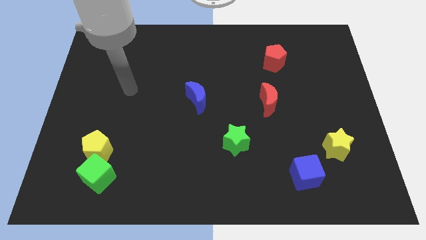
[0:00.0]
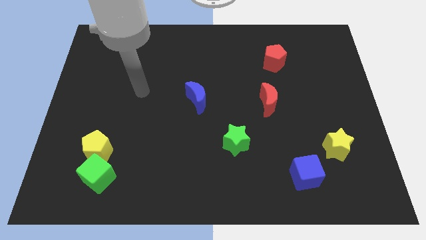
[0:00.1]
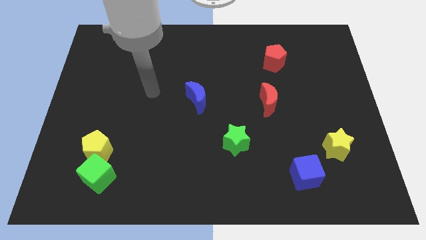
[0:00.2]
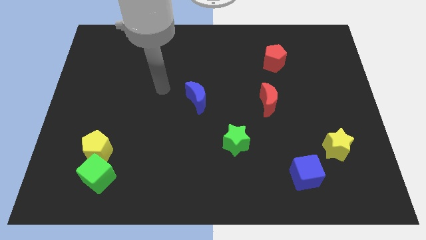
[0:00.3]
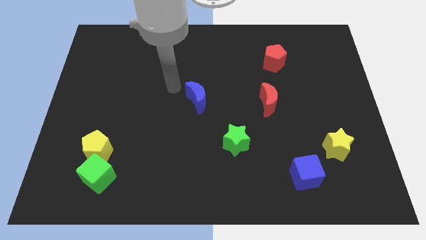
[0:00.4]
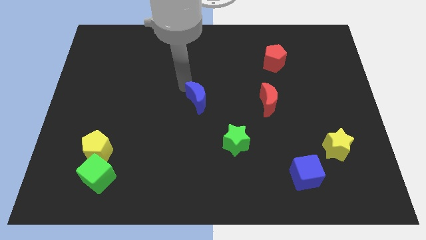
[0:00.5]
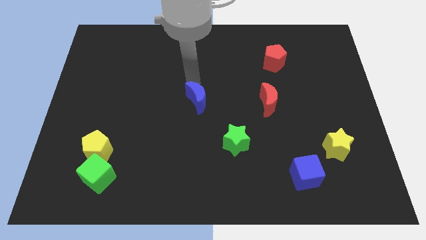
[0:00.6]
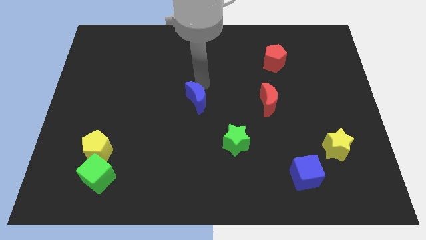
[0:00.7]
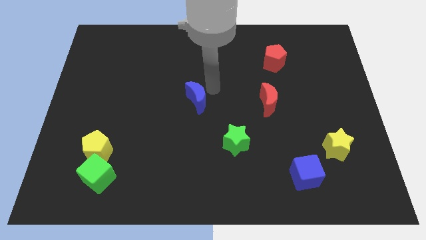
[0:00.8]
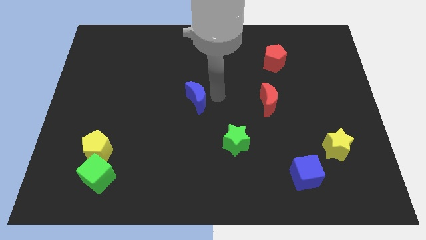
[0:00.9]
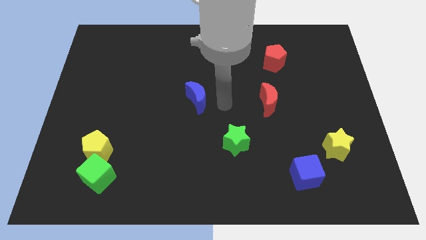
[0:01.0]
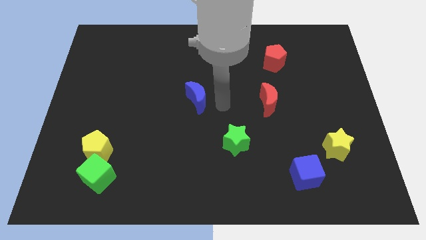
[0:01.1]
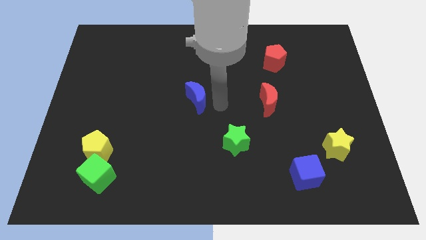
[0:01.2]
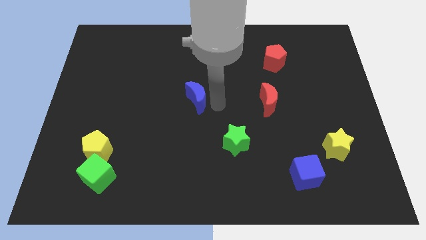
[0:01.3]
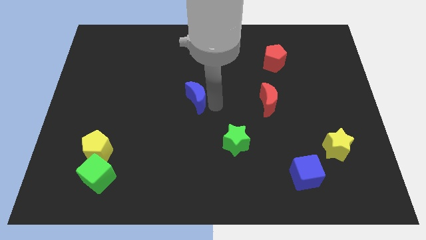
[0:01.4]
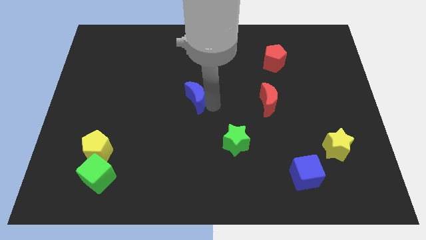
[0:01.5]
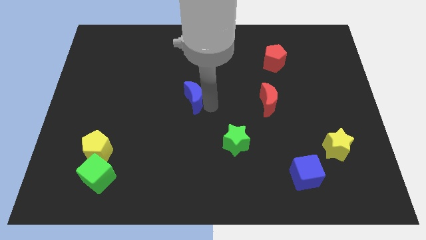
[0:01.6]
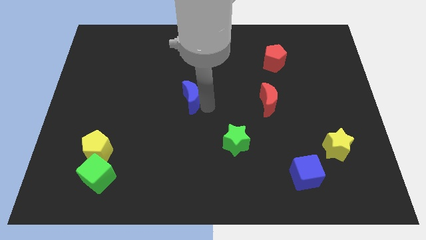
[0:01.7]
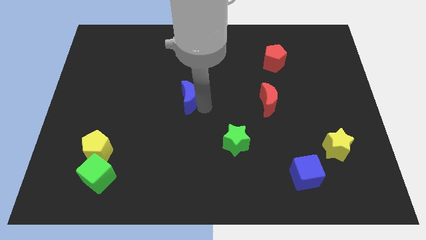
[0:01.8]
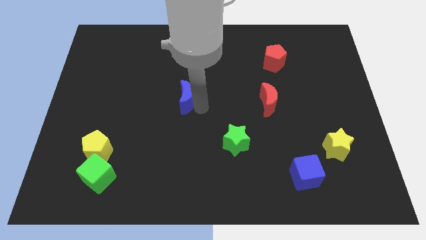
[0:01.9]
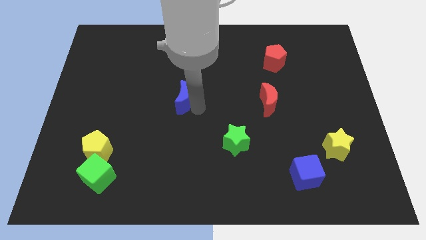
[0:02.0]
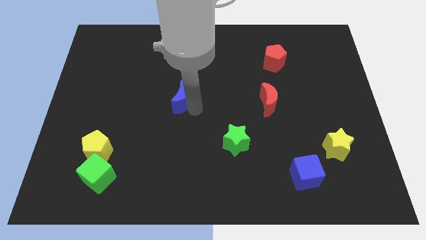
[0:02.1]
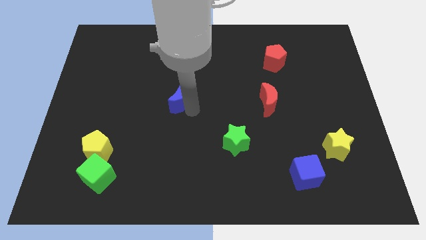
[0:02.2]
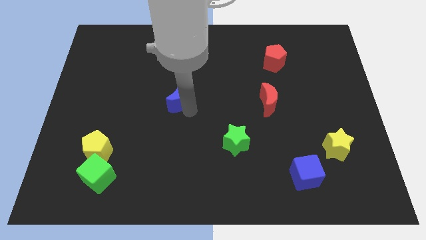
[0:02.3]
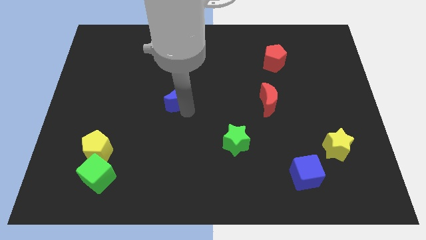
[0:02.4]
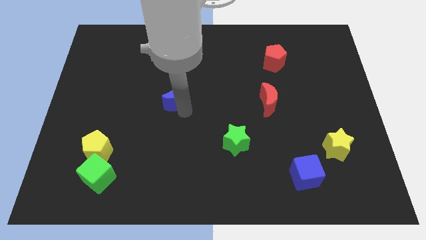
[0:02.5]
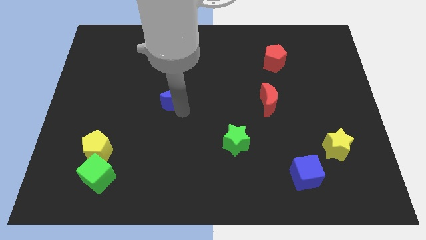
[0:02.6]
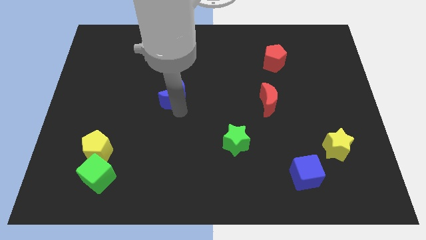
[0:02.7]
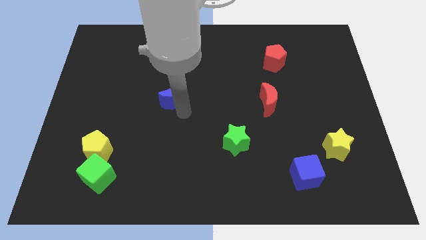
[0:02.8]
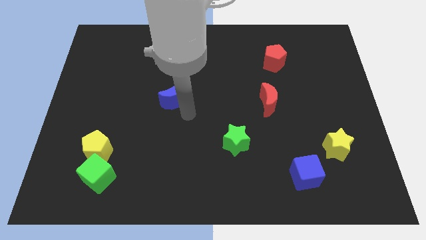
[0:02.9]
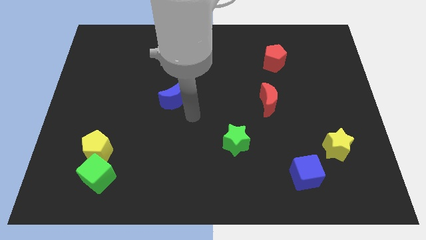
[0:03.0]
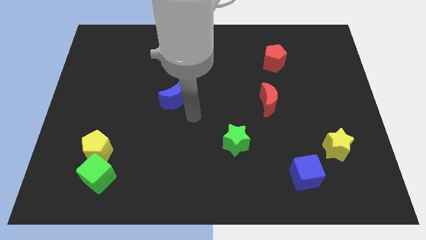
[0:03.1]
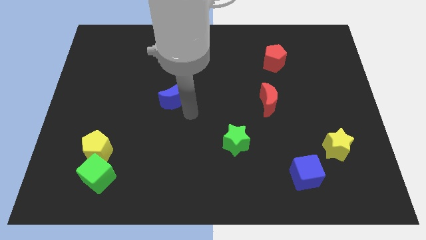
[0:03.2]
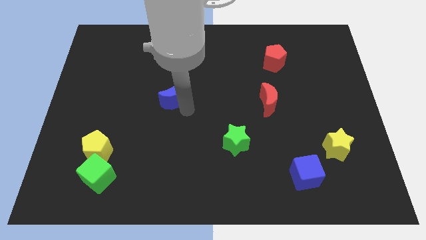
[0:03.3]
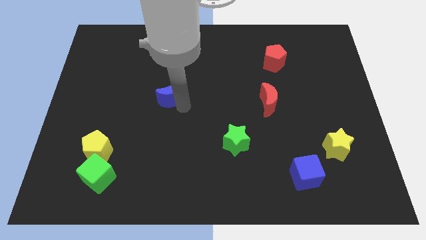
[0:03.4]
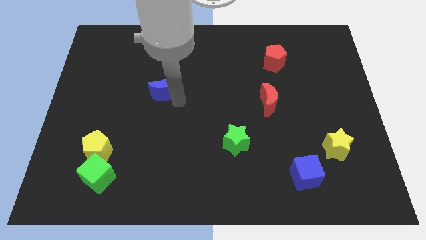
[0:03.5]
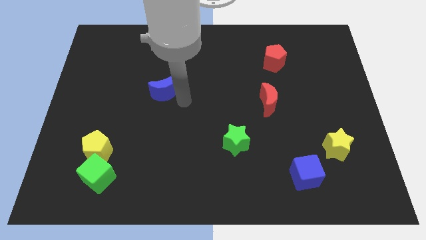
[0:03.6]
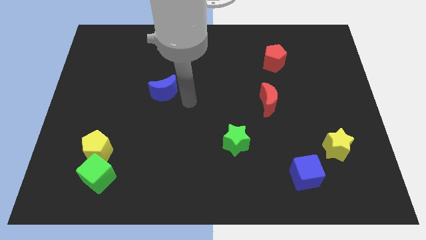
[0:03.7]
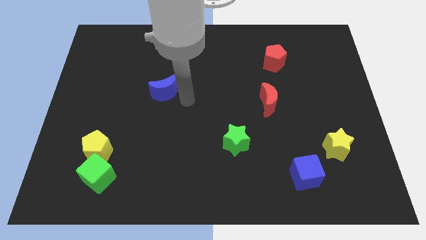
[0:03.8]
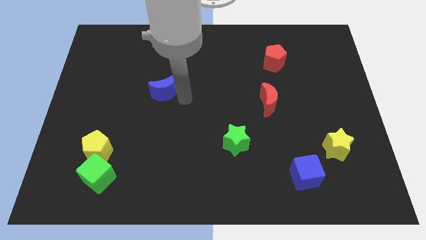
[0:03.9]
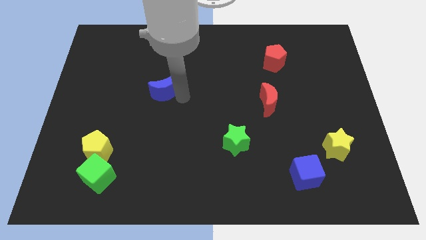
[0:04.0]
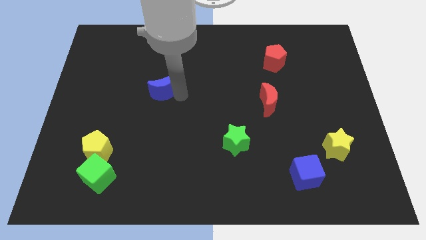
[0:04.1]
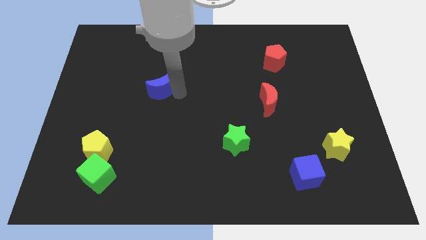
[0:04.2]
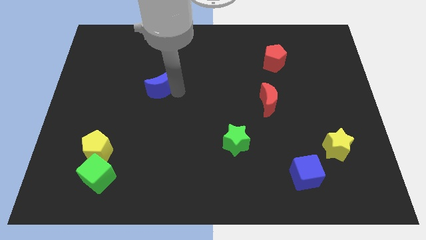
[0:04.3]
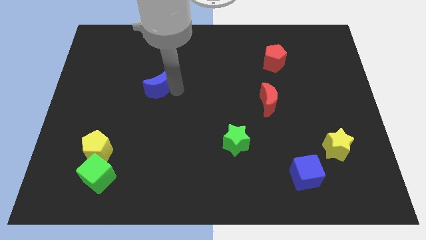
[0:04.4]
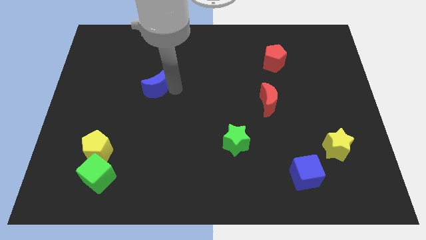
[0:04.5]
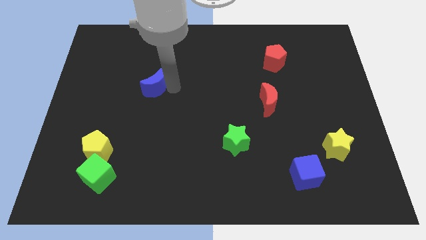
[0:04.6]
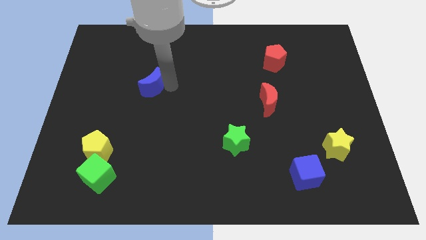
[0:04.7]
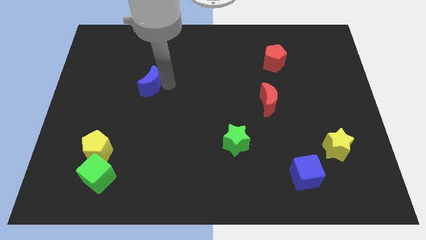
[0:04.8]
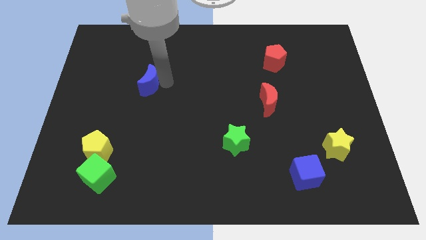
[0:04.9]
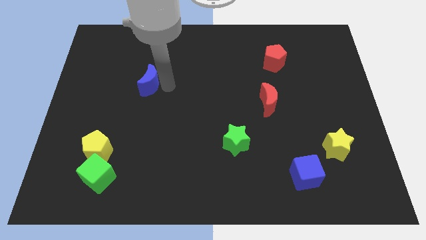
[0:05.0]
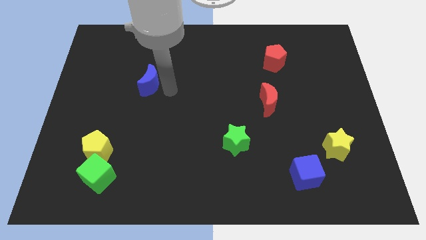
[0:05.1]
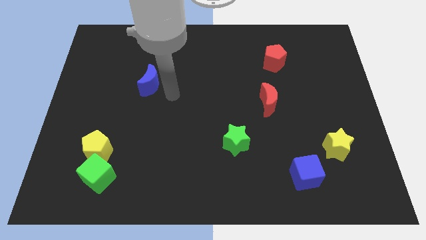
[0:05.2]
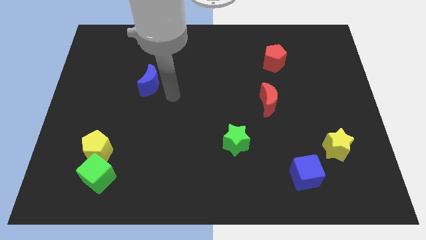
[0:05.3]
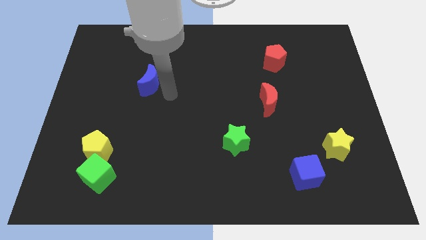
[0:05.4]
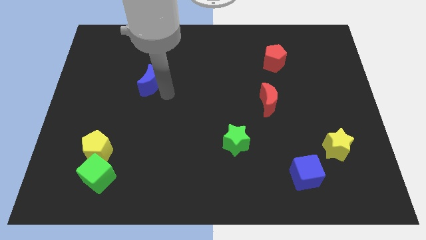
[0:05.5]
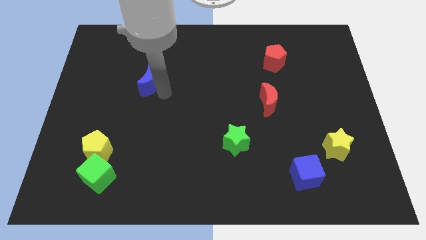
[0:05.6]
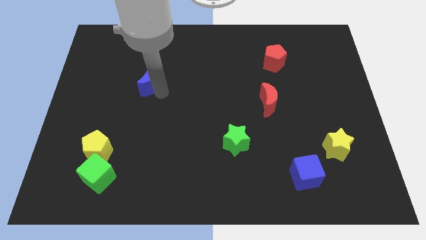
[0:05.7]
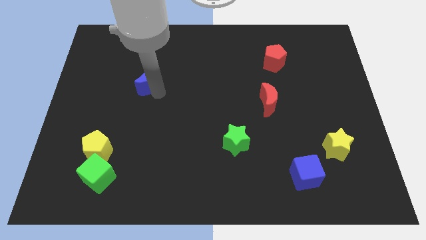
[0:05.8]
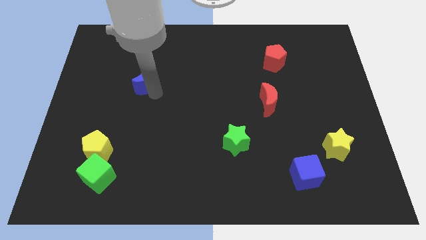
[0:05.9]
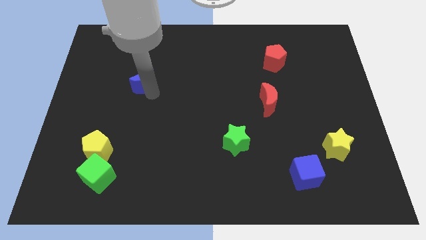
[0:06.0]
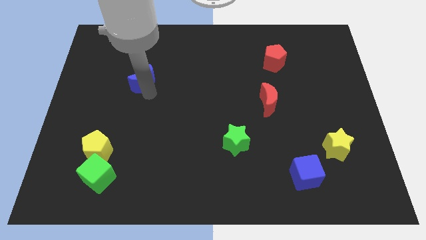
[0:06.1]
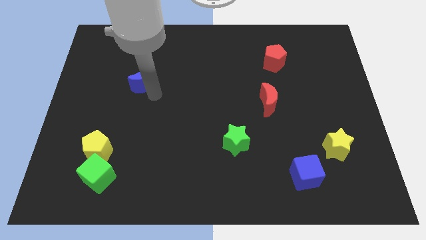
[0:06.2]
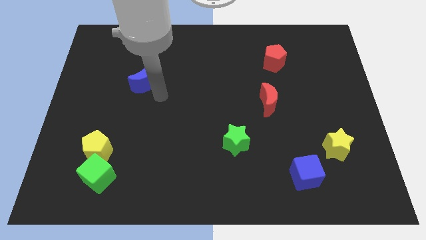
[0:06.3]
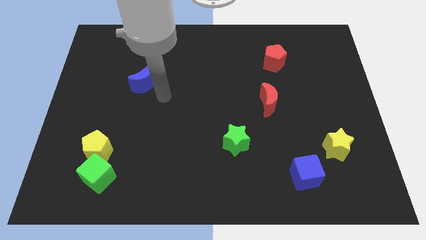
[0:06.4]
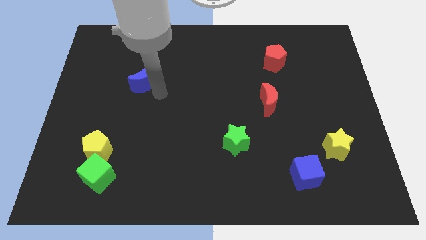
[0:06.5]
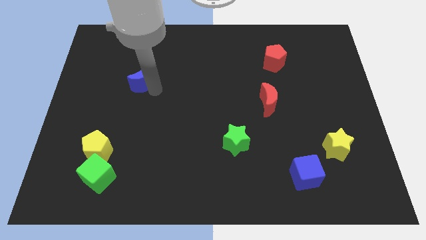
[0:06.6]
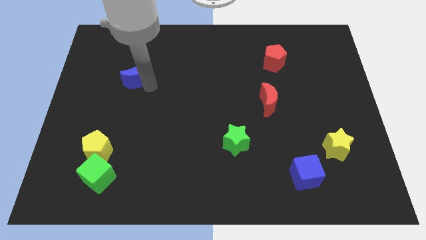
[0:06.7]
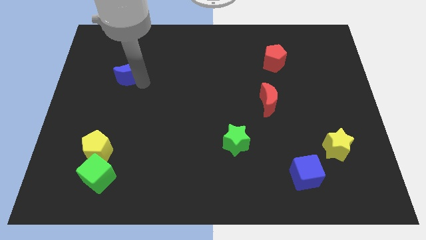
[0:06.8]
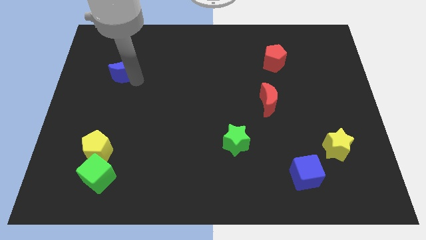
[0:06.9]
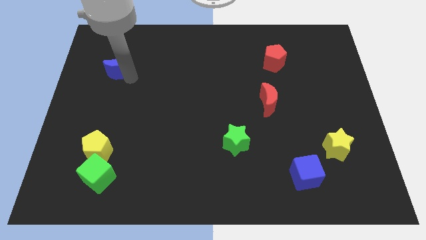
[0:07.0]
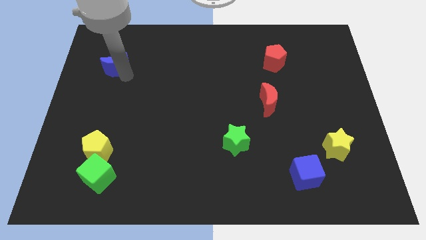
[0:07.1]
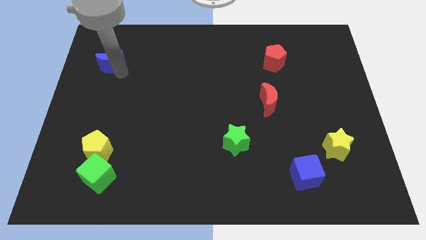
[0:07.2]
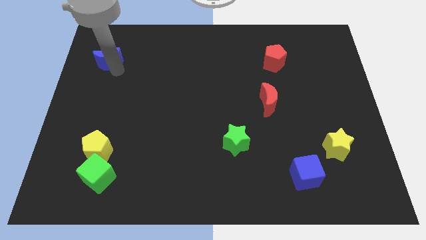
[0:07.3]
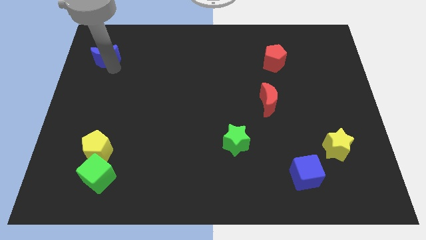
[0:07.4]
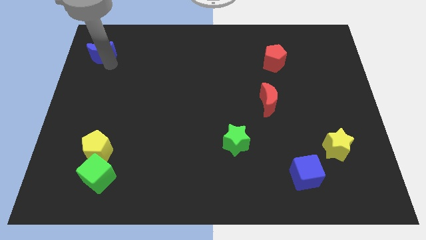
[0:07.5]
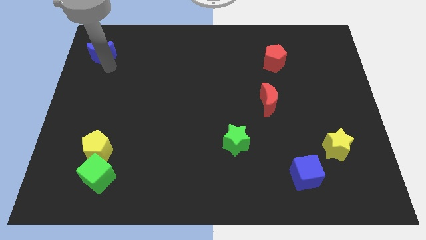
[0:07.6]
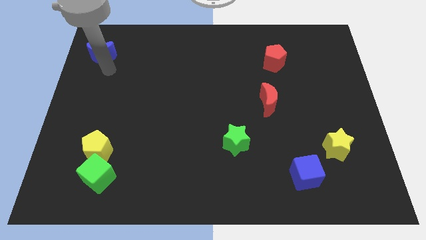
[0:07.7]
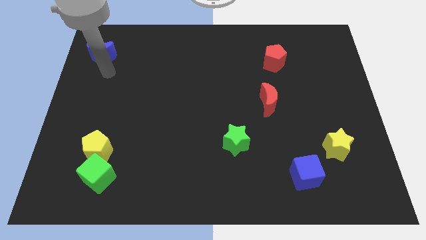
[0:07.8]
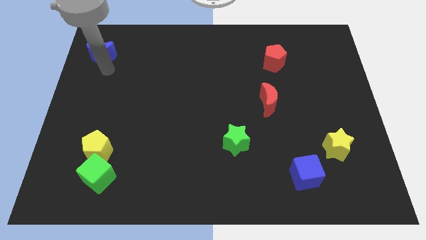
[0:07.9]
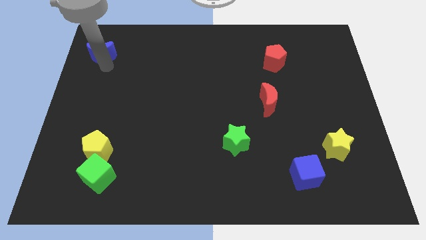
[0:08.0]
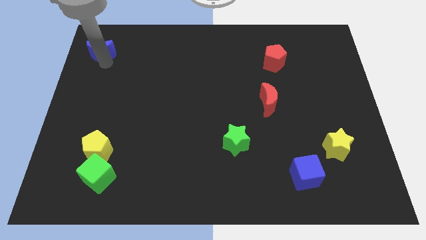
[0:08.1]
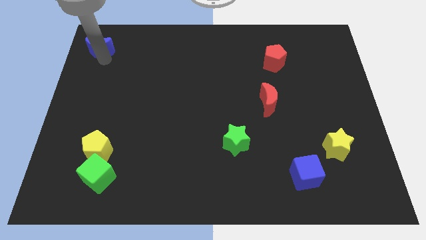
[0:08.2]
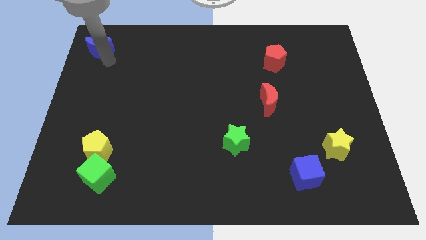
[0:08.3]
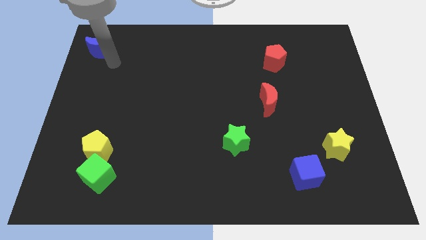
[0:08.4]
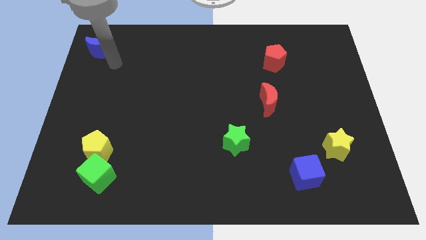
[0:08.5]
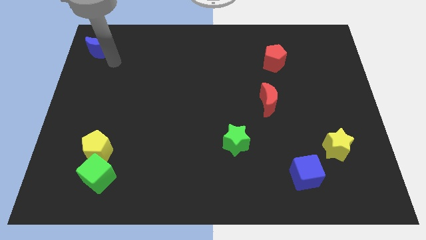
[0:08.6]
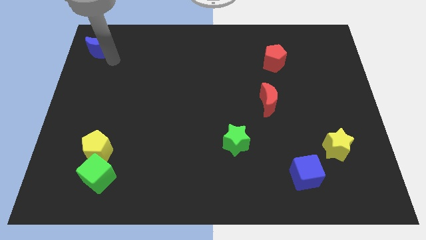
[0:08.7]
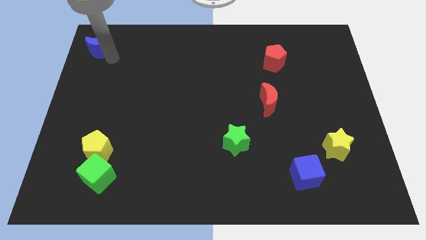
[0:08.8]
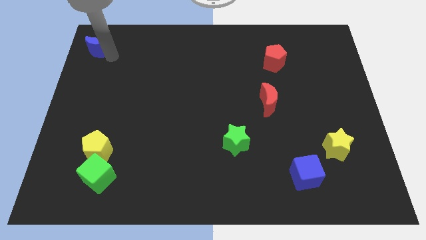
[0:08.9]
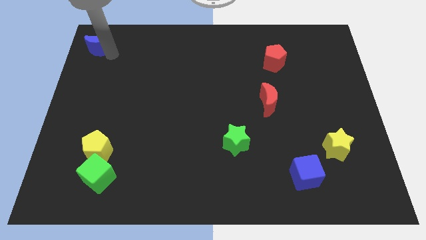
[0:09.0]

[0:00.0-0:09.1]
slide the blue moon to the top left corner
